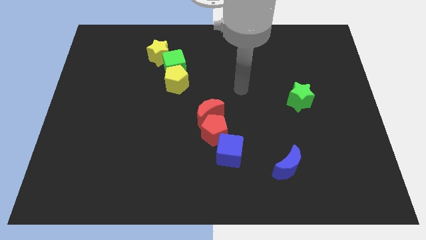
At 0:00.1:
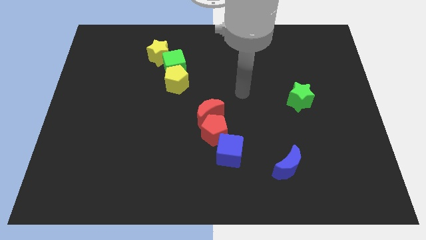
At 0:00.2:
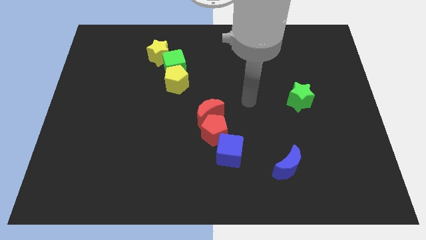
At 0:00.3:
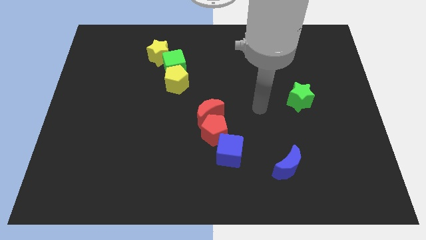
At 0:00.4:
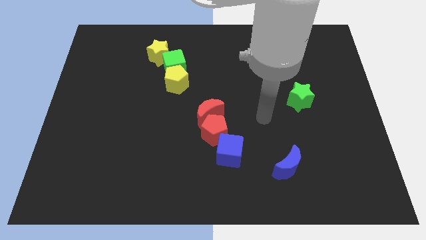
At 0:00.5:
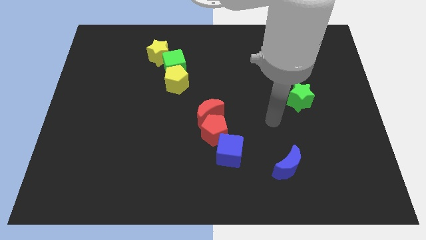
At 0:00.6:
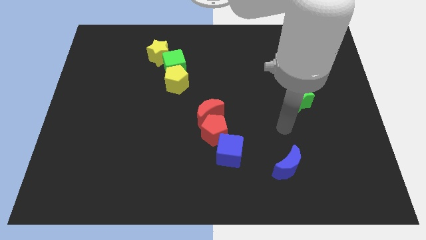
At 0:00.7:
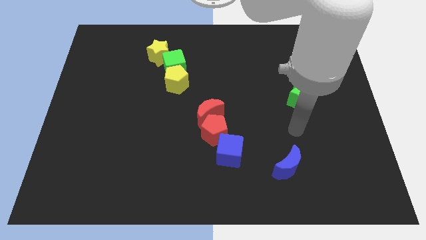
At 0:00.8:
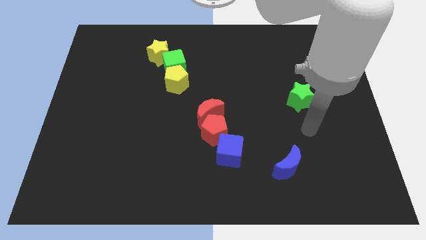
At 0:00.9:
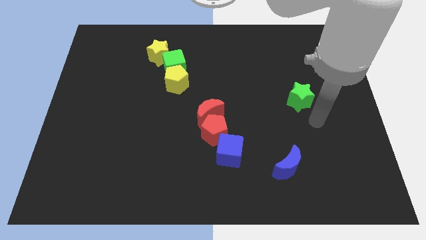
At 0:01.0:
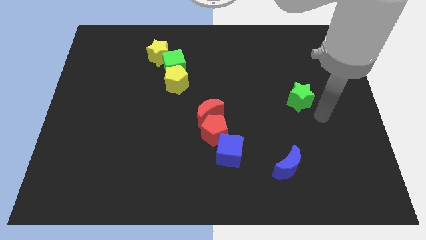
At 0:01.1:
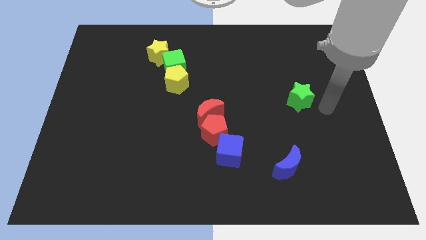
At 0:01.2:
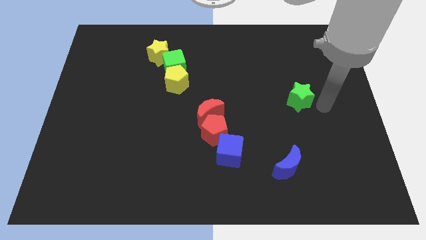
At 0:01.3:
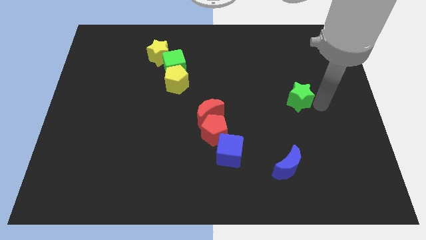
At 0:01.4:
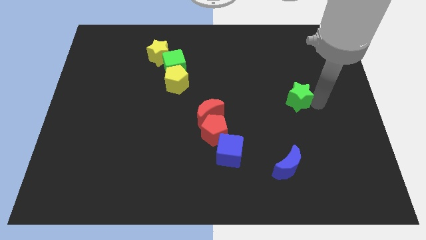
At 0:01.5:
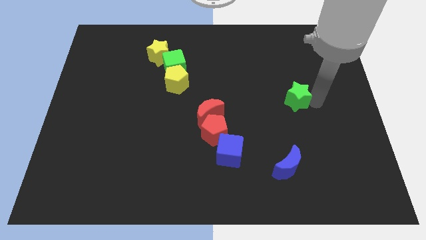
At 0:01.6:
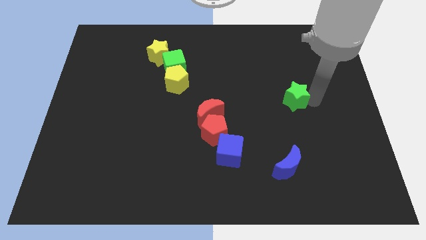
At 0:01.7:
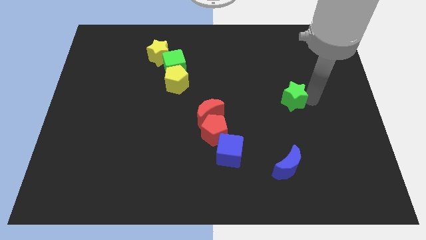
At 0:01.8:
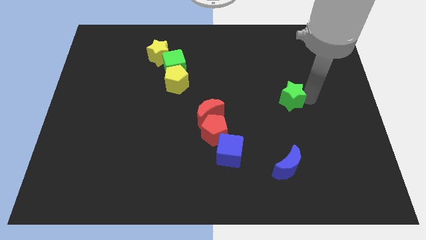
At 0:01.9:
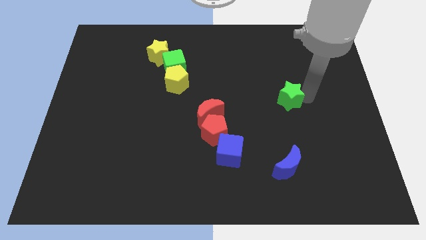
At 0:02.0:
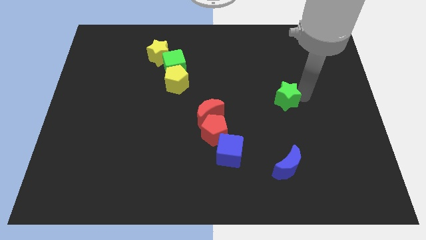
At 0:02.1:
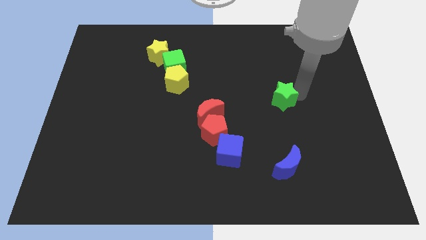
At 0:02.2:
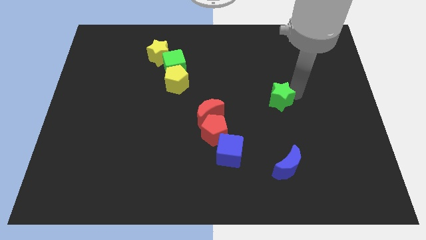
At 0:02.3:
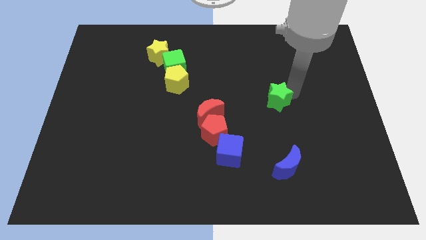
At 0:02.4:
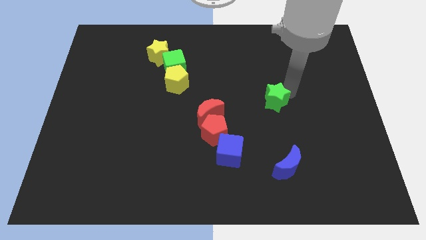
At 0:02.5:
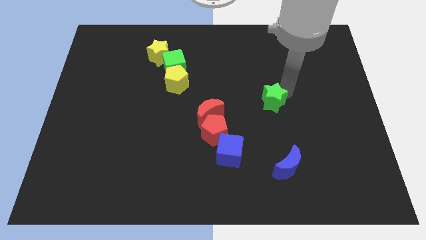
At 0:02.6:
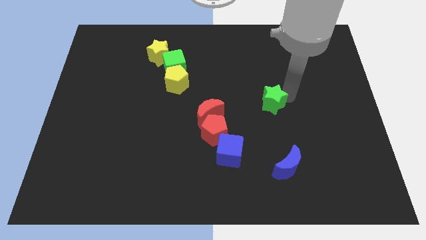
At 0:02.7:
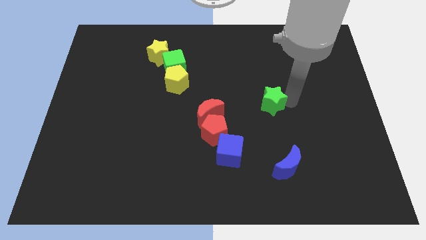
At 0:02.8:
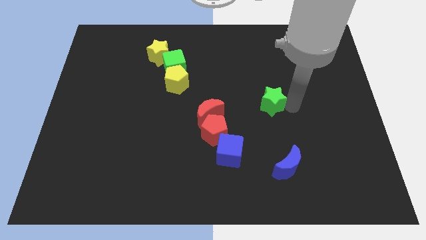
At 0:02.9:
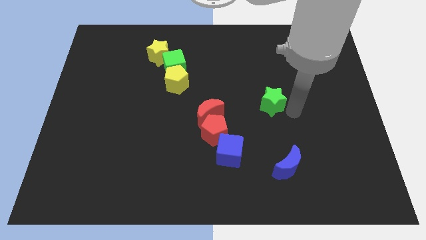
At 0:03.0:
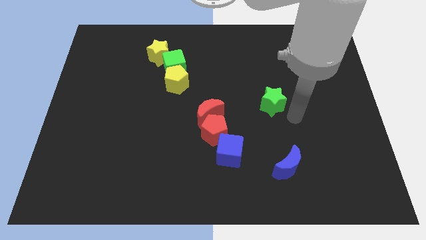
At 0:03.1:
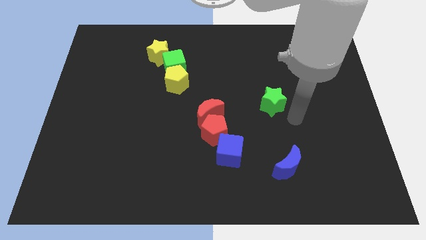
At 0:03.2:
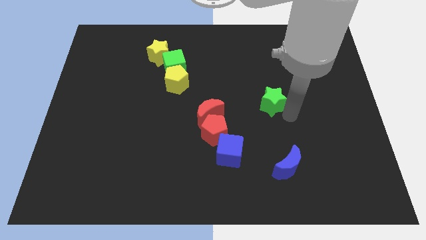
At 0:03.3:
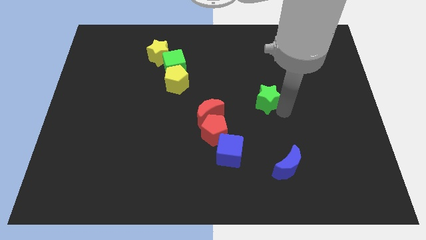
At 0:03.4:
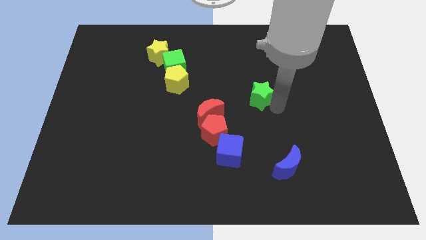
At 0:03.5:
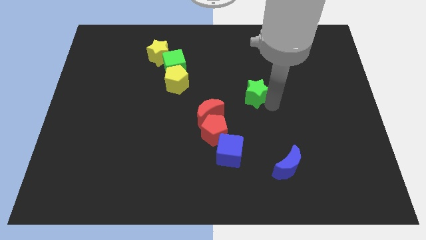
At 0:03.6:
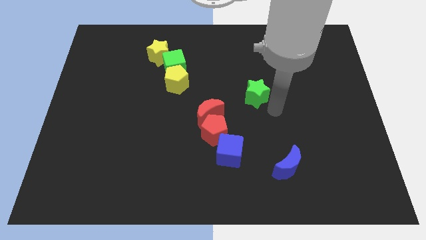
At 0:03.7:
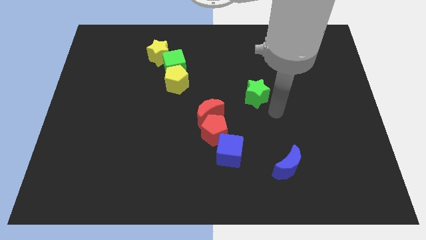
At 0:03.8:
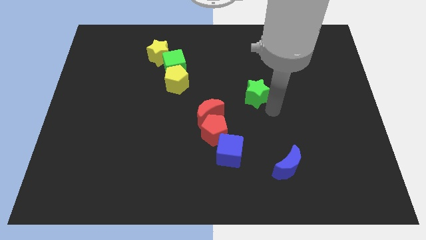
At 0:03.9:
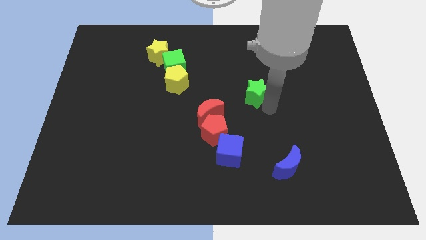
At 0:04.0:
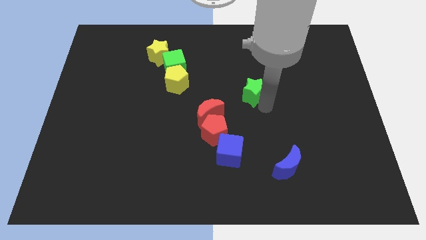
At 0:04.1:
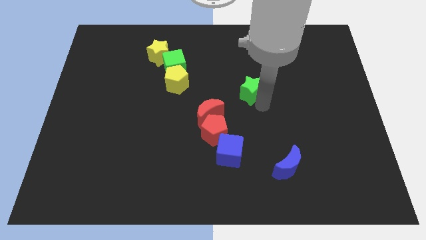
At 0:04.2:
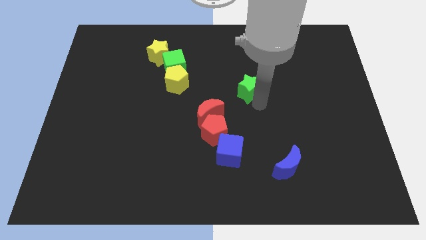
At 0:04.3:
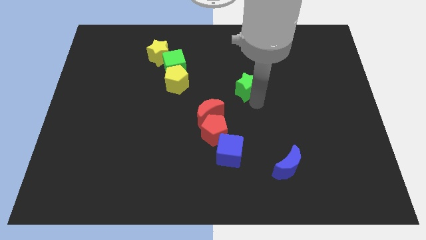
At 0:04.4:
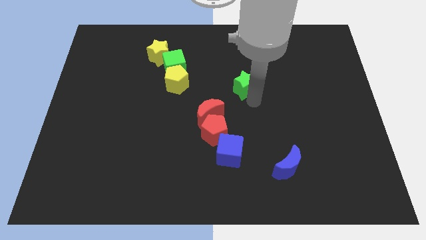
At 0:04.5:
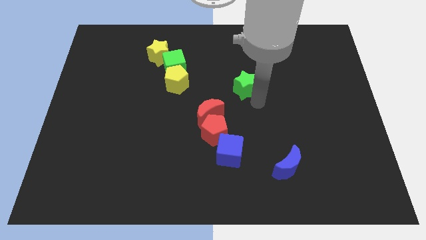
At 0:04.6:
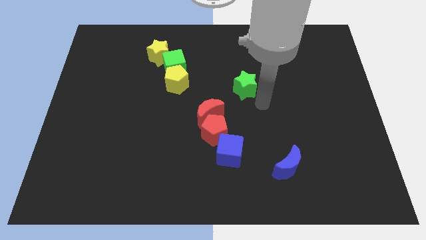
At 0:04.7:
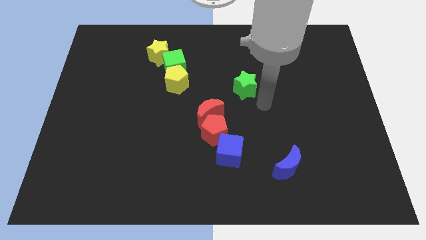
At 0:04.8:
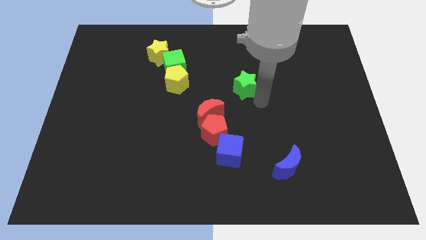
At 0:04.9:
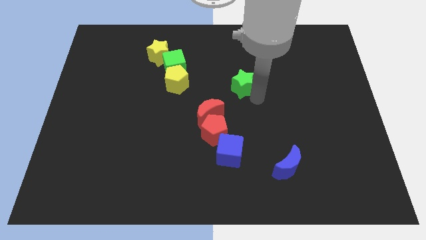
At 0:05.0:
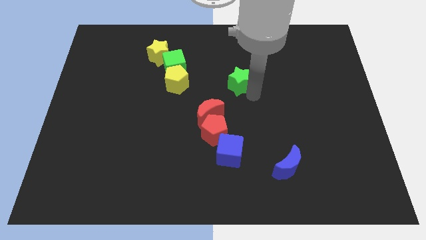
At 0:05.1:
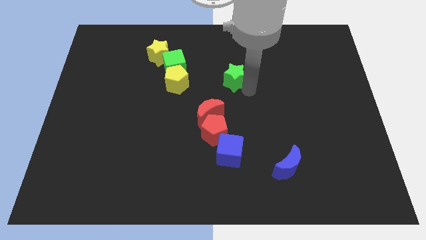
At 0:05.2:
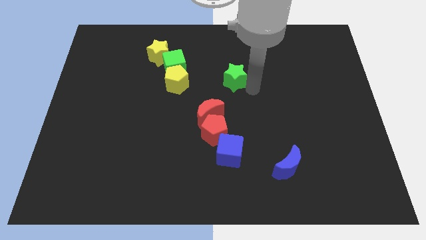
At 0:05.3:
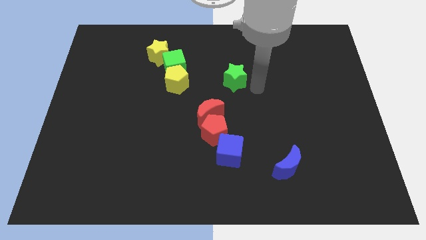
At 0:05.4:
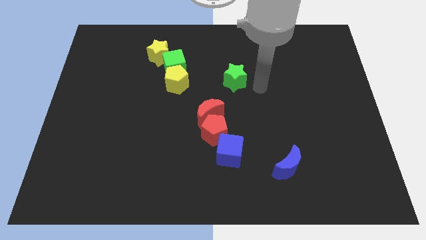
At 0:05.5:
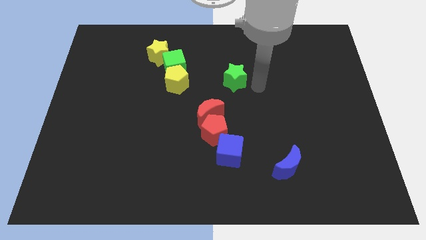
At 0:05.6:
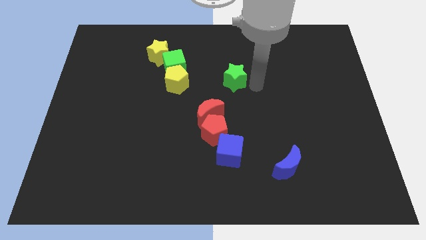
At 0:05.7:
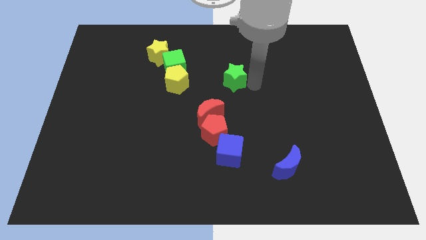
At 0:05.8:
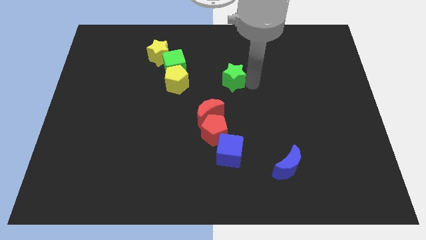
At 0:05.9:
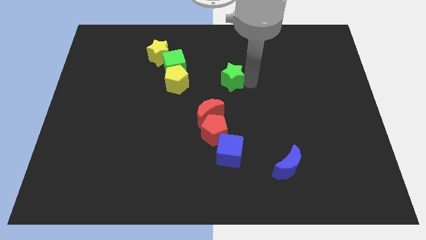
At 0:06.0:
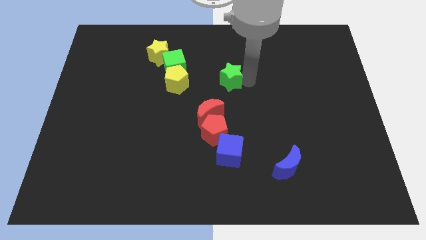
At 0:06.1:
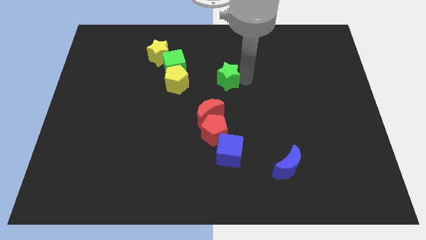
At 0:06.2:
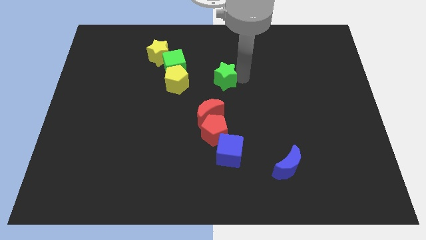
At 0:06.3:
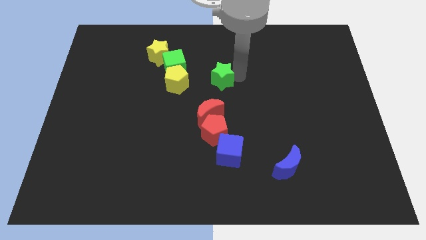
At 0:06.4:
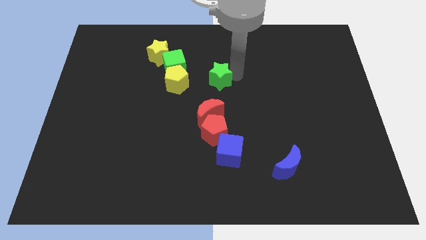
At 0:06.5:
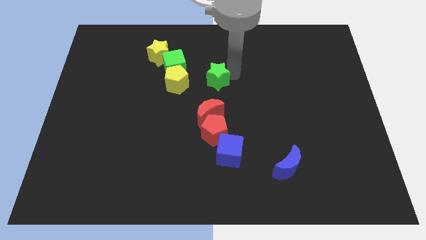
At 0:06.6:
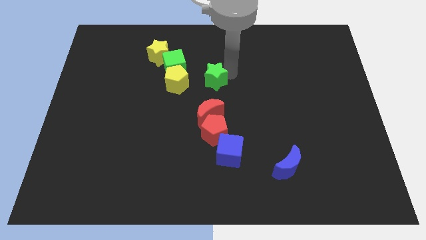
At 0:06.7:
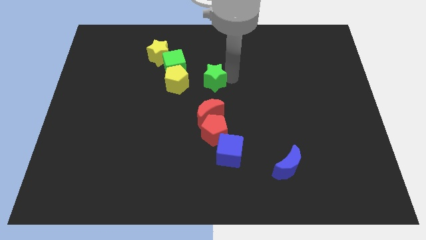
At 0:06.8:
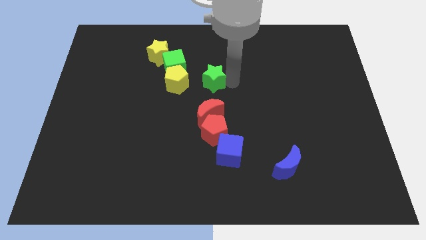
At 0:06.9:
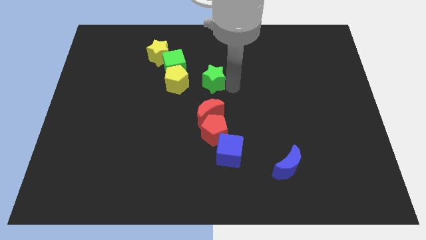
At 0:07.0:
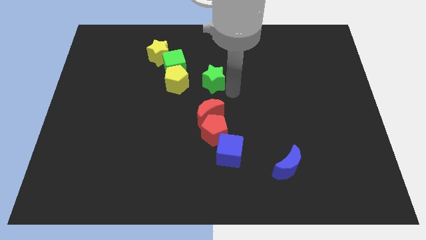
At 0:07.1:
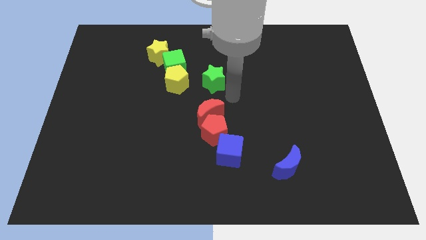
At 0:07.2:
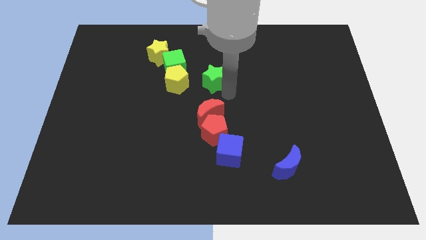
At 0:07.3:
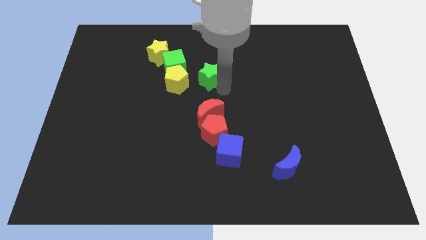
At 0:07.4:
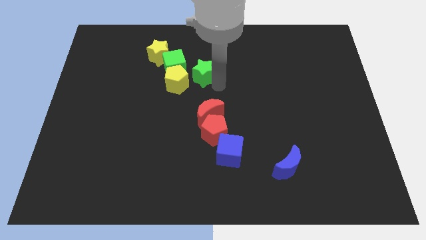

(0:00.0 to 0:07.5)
put the green star to the top right side of the yellow pentagon

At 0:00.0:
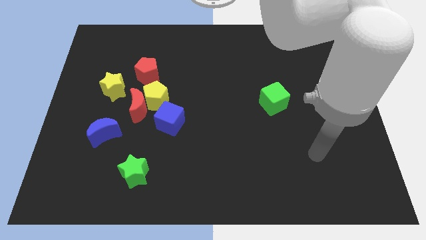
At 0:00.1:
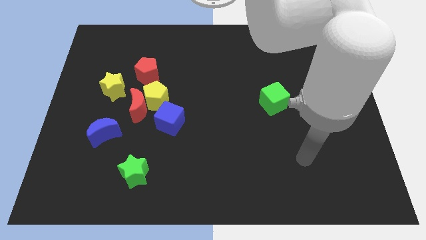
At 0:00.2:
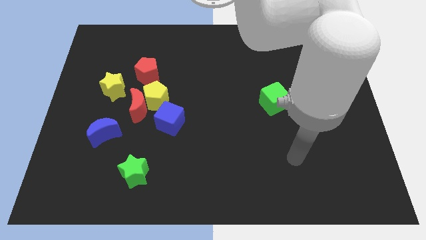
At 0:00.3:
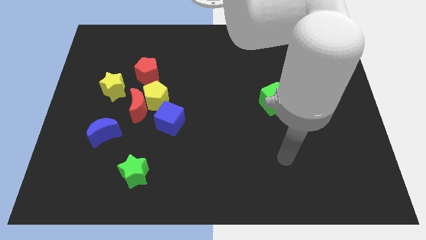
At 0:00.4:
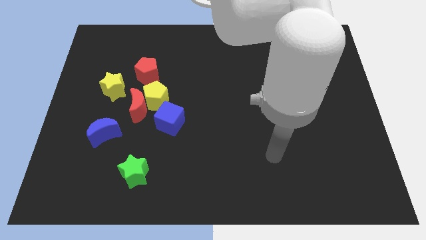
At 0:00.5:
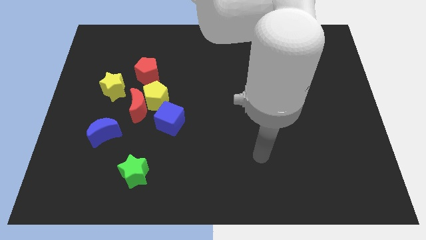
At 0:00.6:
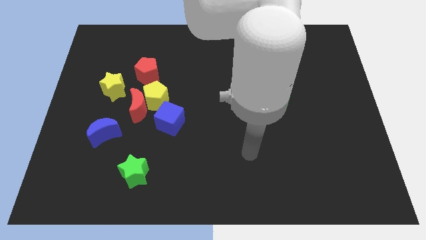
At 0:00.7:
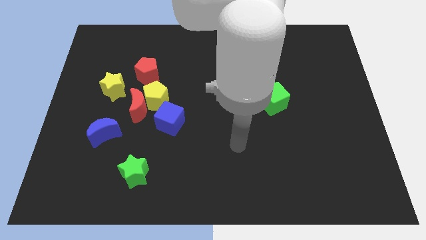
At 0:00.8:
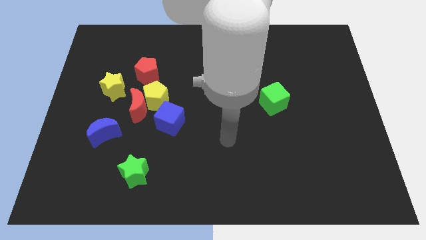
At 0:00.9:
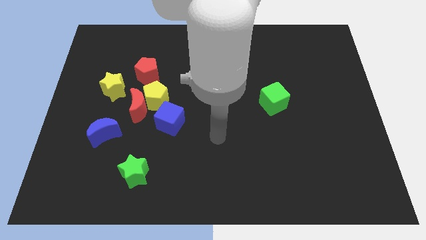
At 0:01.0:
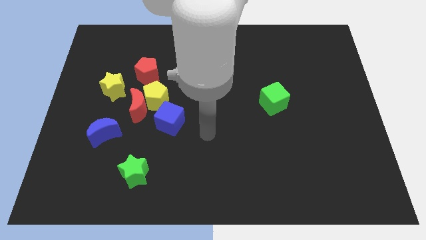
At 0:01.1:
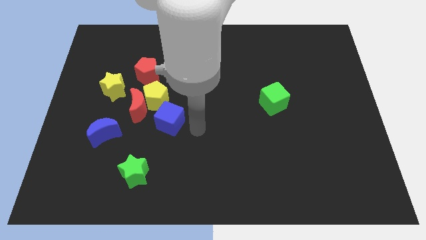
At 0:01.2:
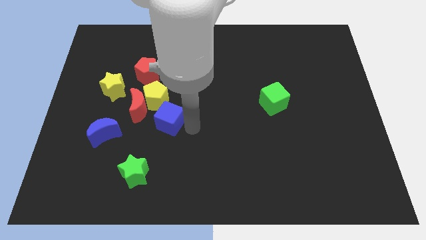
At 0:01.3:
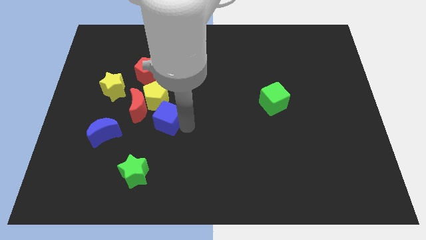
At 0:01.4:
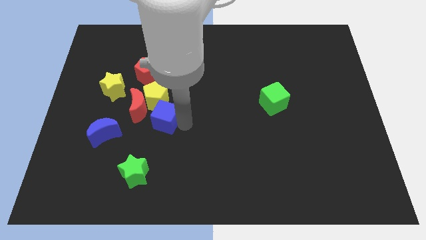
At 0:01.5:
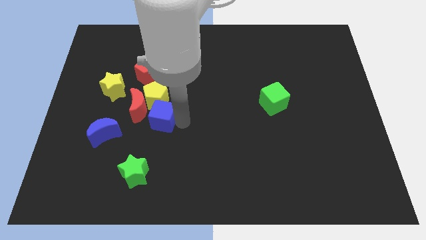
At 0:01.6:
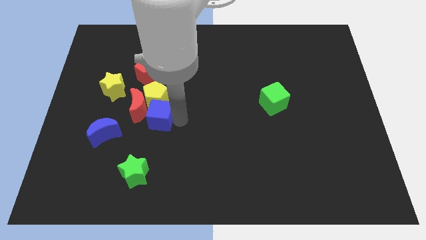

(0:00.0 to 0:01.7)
slide the blue cube to the bottom side of the red pentagon
